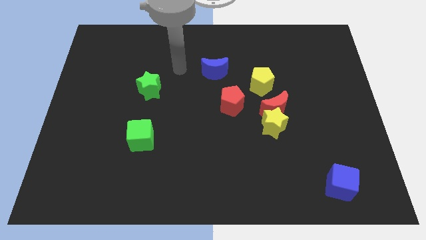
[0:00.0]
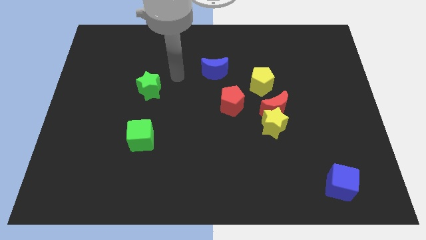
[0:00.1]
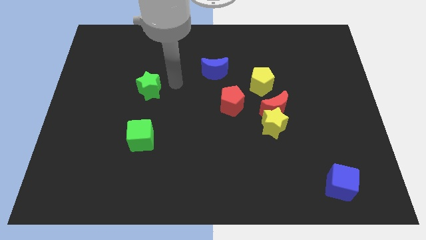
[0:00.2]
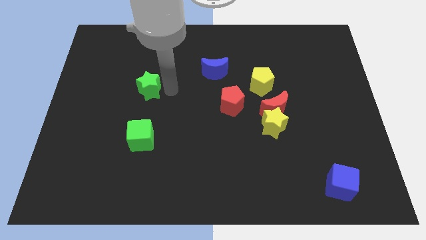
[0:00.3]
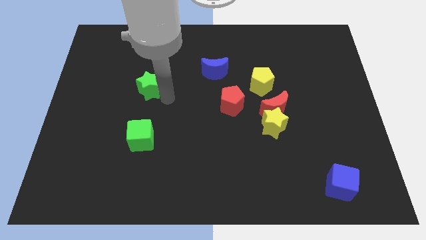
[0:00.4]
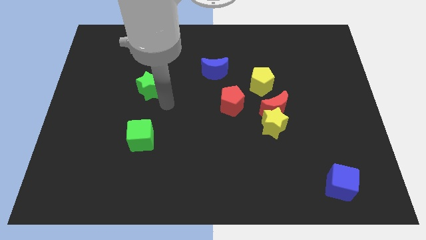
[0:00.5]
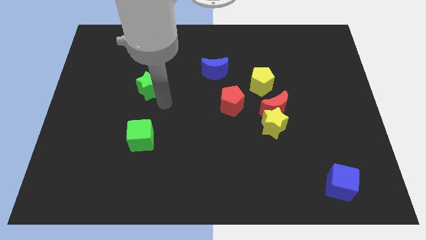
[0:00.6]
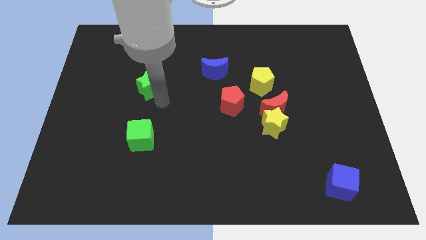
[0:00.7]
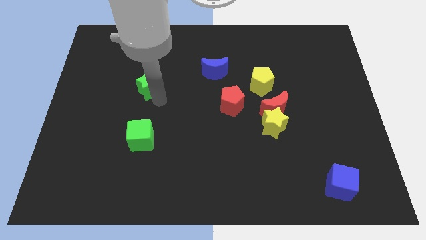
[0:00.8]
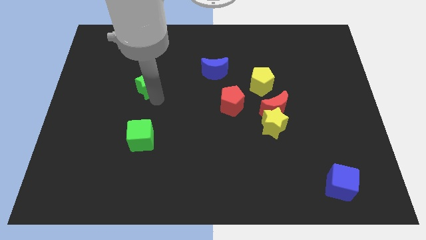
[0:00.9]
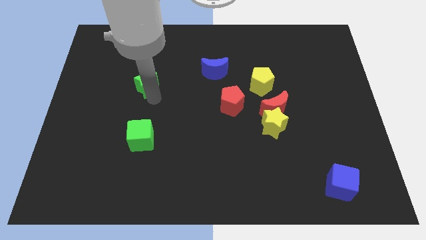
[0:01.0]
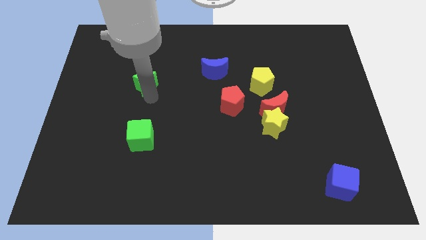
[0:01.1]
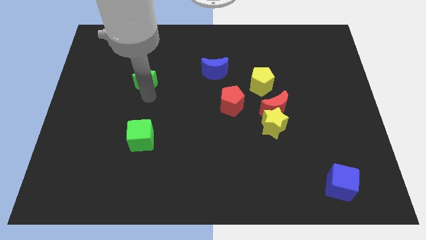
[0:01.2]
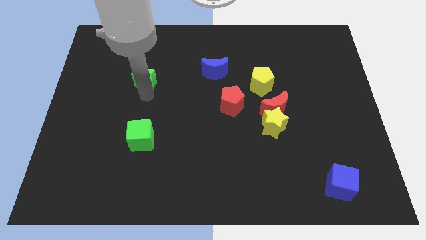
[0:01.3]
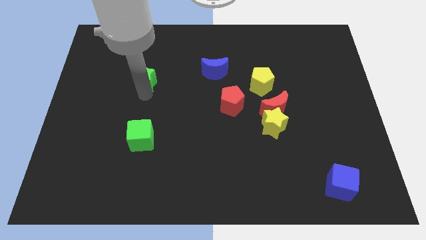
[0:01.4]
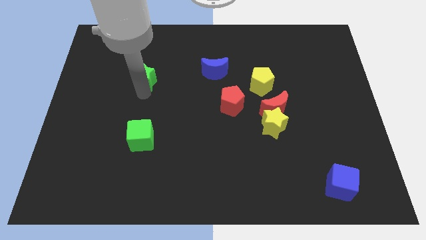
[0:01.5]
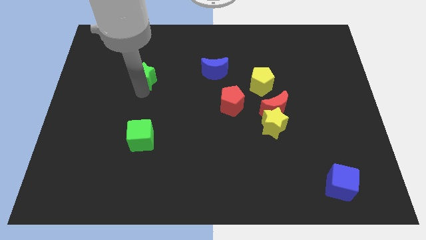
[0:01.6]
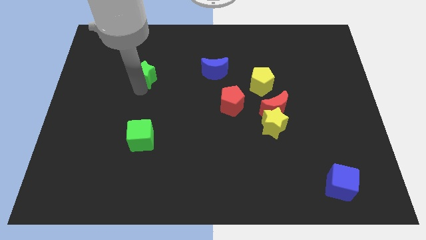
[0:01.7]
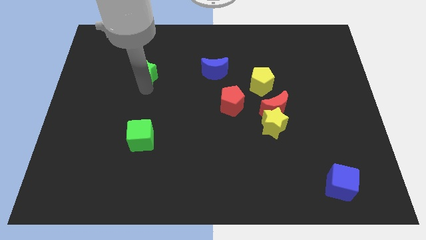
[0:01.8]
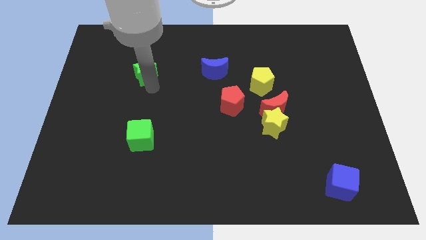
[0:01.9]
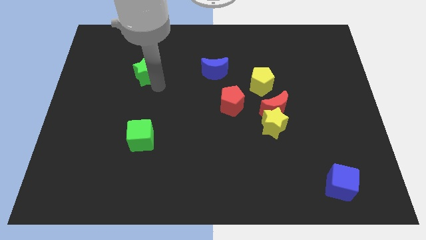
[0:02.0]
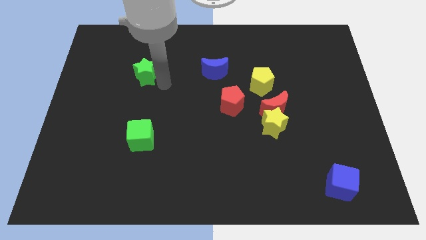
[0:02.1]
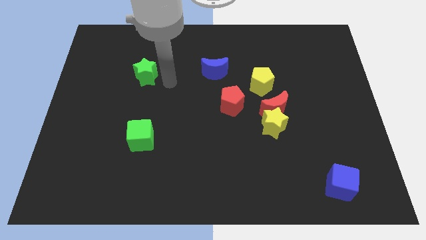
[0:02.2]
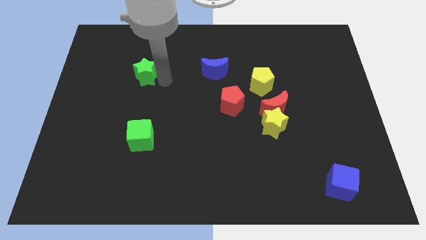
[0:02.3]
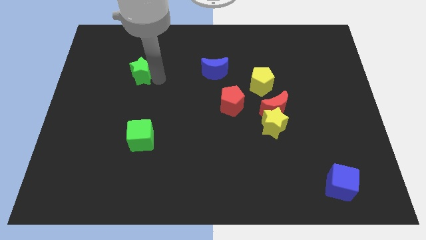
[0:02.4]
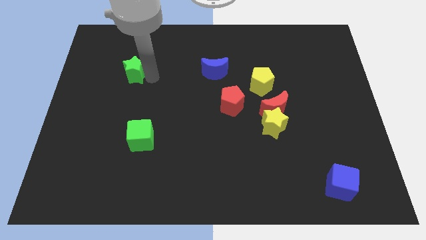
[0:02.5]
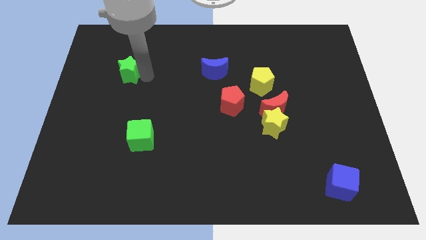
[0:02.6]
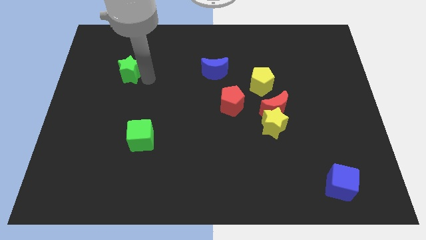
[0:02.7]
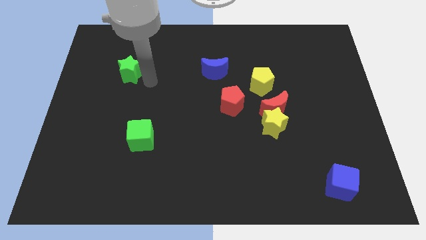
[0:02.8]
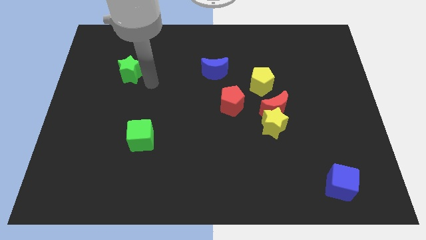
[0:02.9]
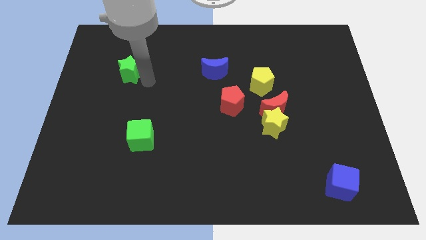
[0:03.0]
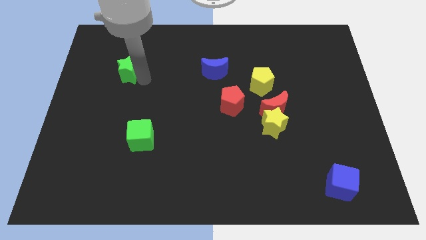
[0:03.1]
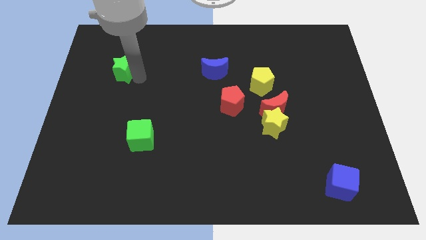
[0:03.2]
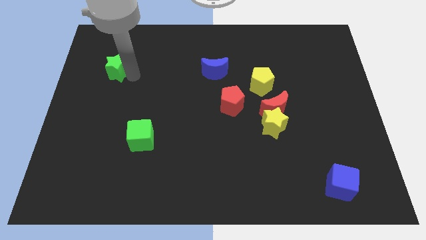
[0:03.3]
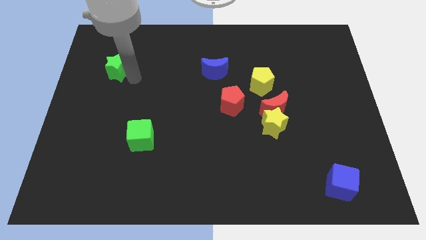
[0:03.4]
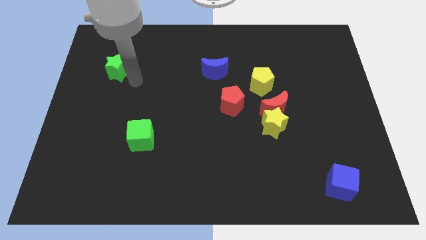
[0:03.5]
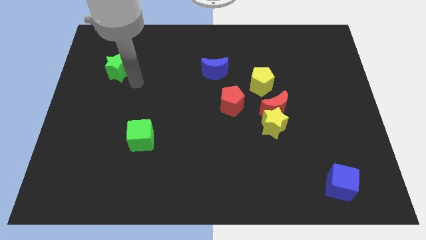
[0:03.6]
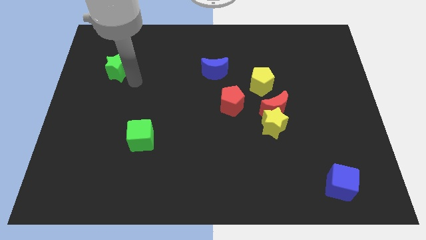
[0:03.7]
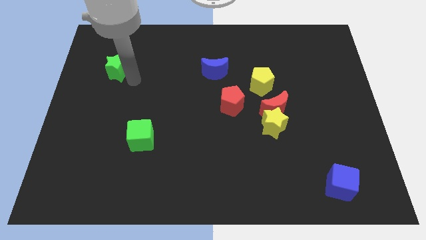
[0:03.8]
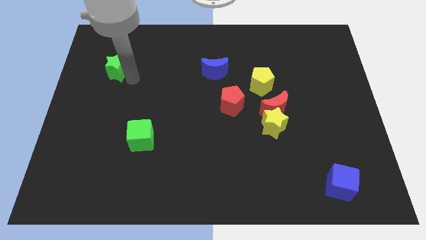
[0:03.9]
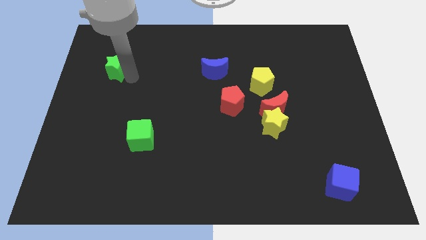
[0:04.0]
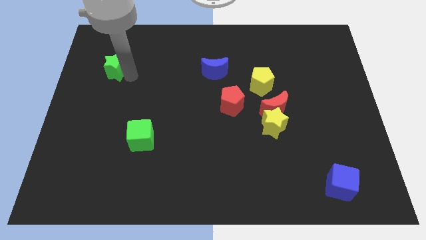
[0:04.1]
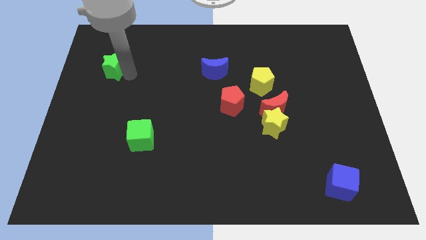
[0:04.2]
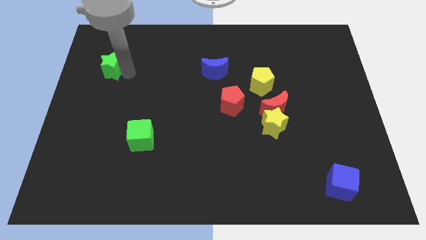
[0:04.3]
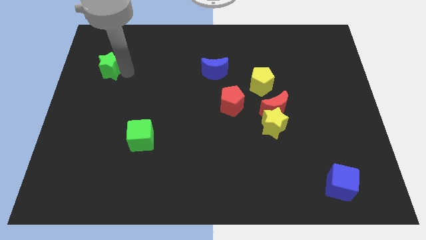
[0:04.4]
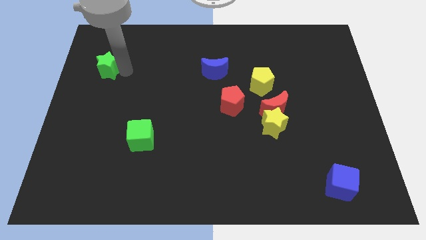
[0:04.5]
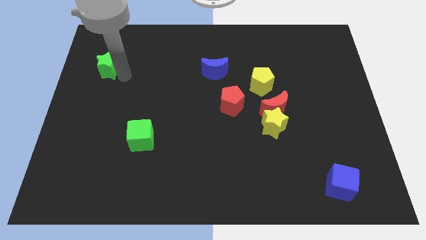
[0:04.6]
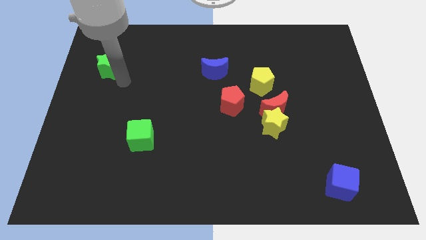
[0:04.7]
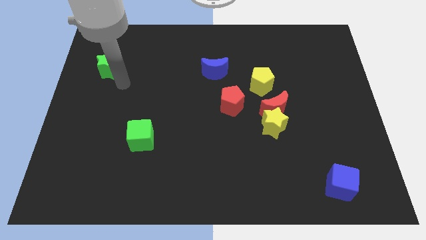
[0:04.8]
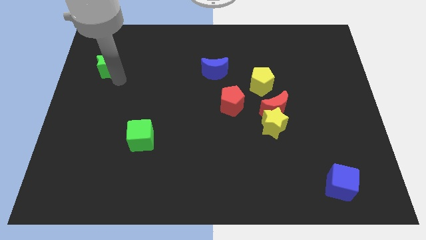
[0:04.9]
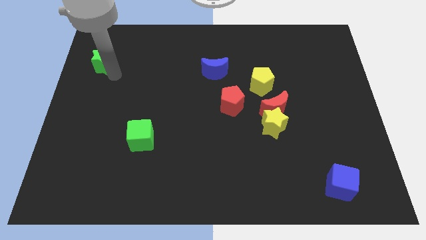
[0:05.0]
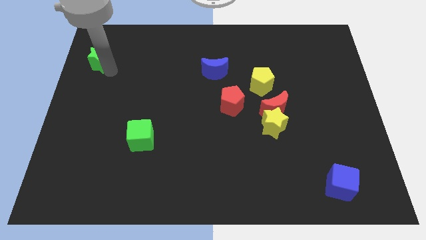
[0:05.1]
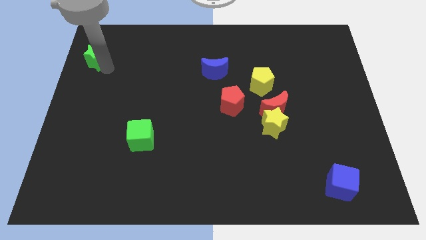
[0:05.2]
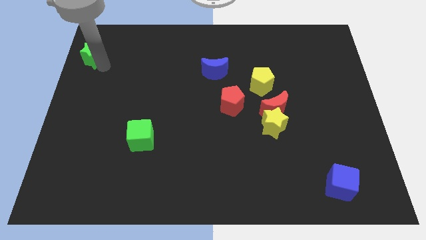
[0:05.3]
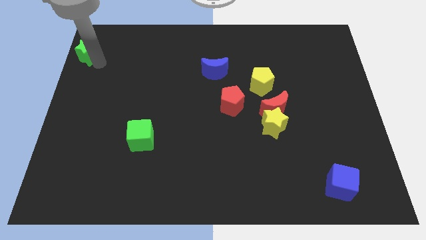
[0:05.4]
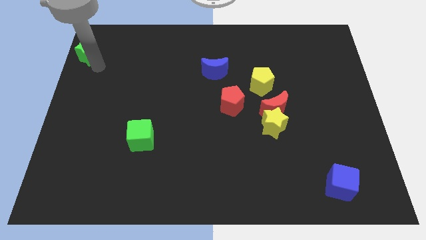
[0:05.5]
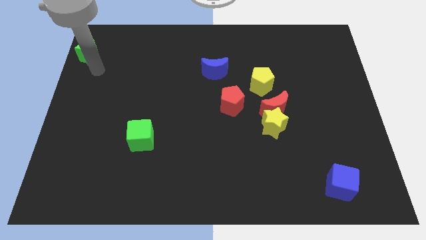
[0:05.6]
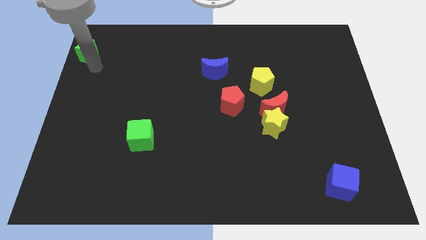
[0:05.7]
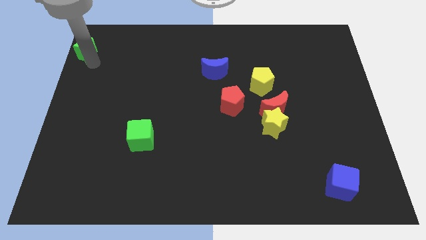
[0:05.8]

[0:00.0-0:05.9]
put the green star to the top left corner
